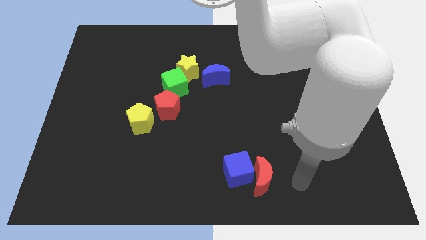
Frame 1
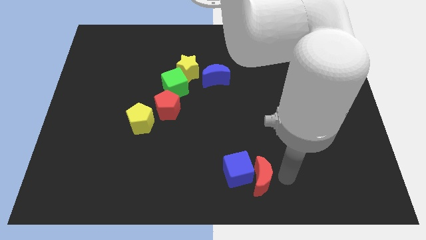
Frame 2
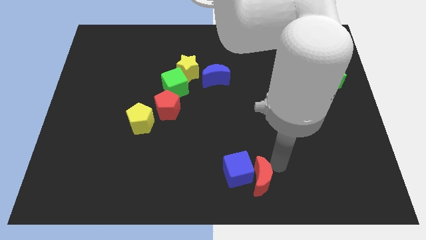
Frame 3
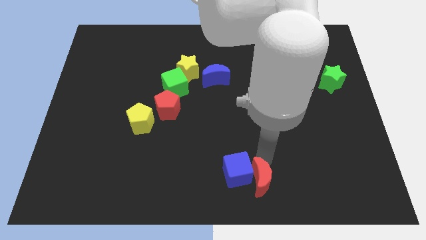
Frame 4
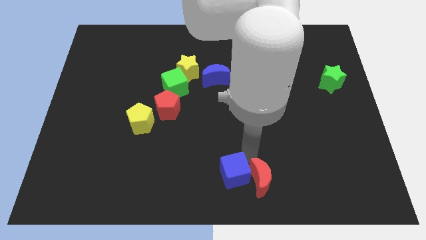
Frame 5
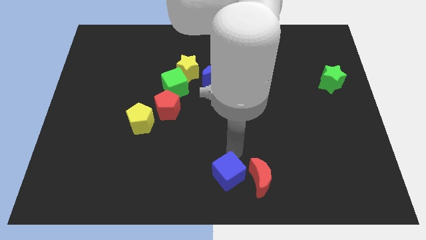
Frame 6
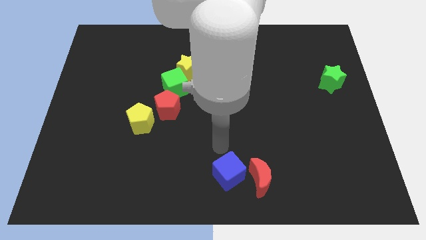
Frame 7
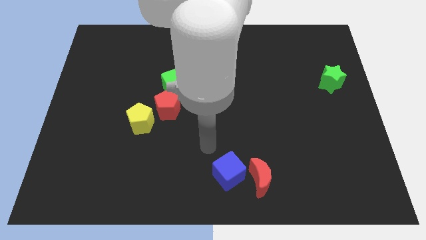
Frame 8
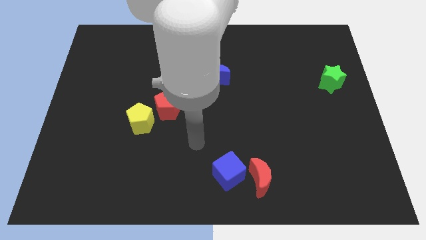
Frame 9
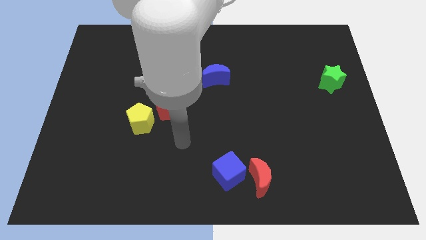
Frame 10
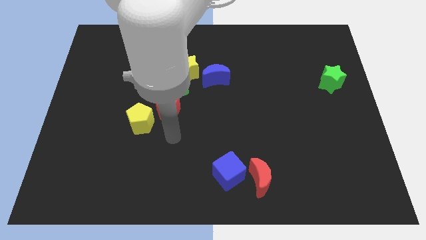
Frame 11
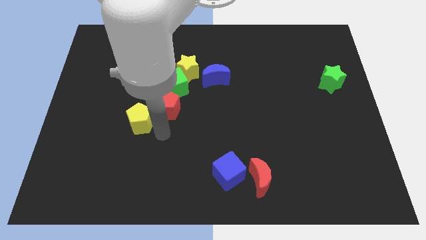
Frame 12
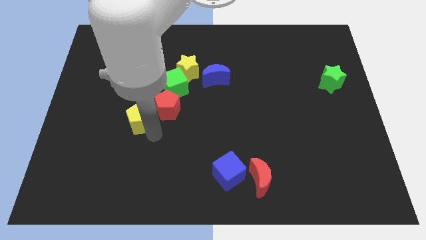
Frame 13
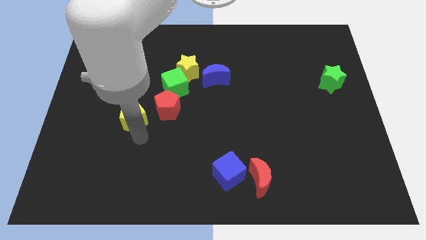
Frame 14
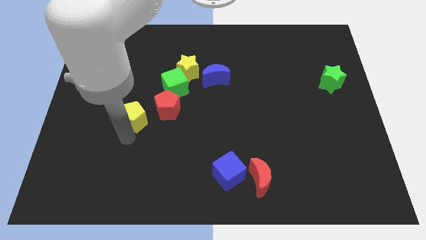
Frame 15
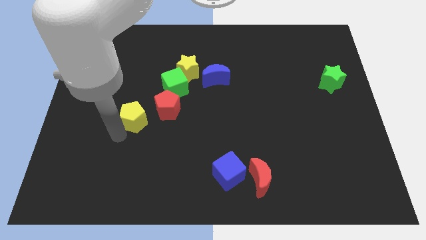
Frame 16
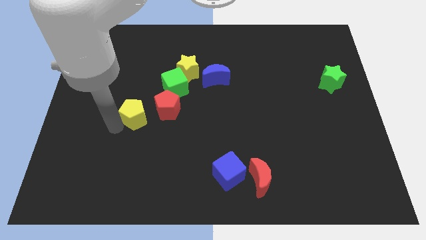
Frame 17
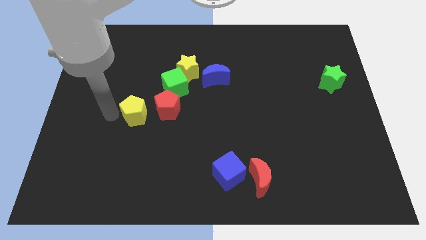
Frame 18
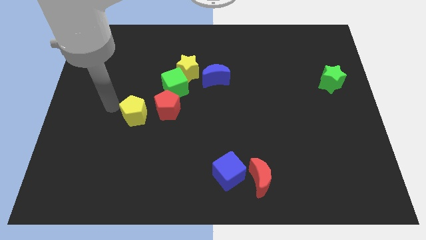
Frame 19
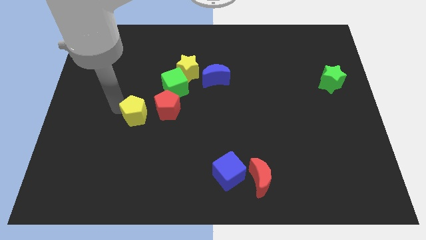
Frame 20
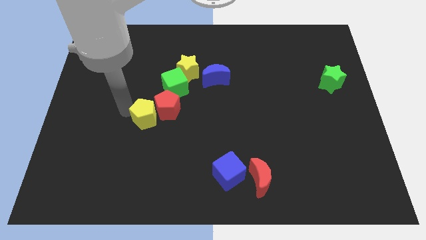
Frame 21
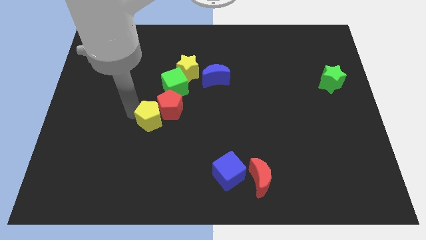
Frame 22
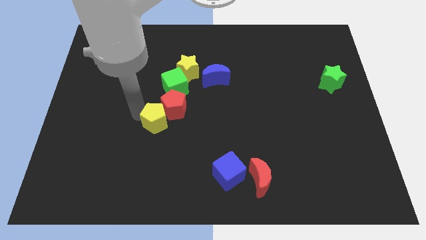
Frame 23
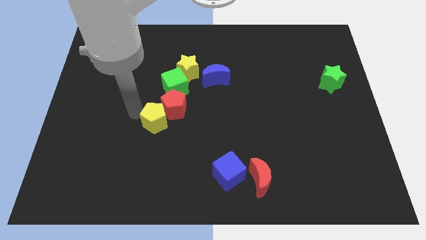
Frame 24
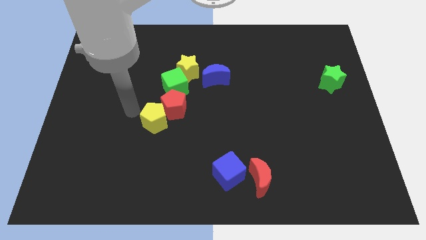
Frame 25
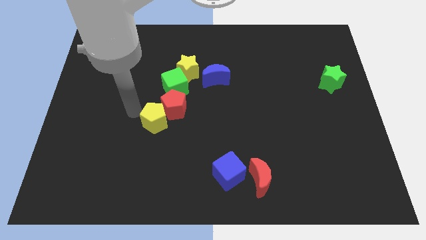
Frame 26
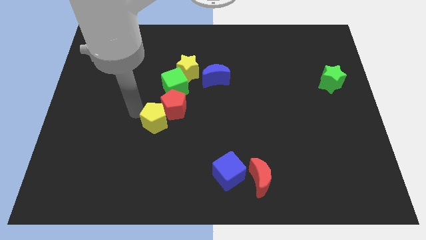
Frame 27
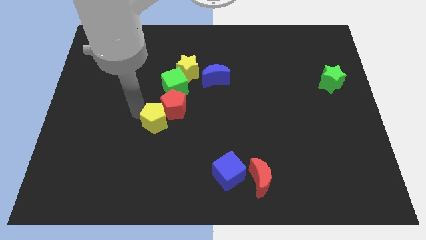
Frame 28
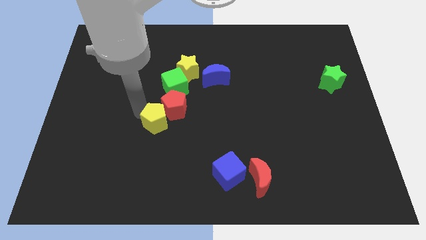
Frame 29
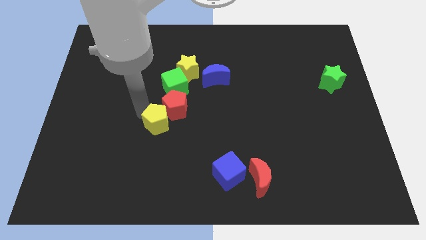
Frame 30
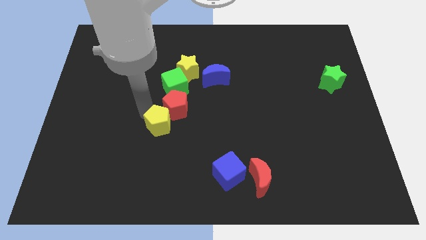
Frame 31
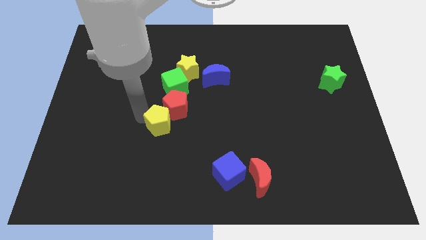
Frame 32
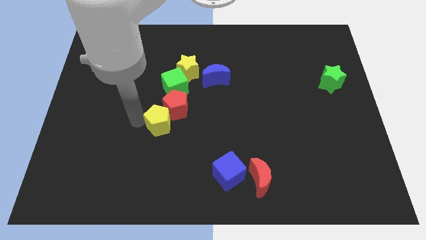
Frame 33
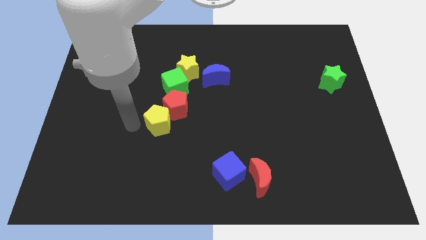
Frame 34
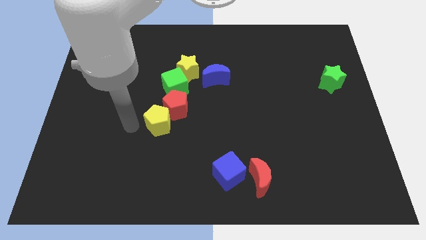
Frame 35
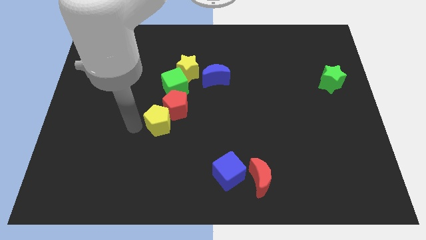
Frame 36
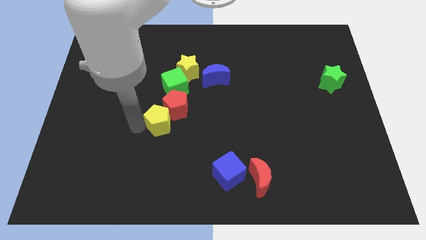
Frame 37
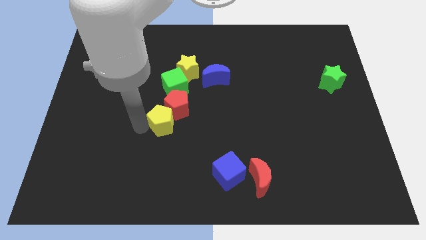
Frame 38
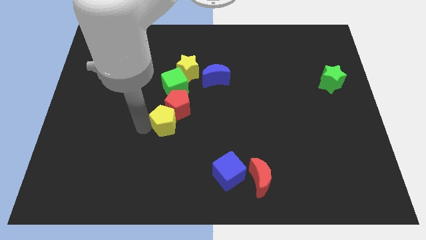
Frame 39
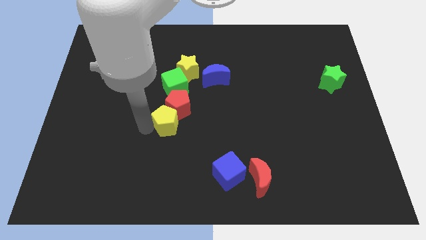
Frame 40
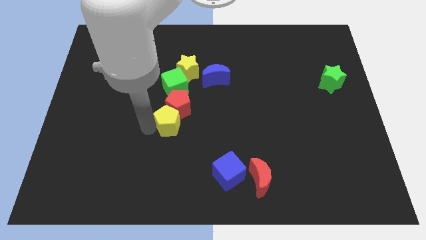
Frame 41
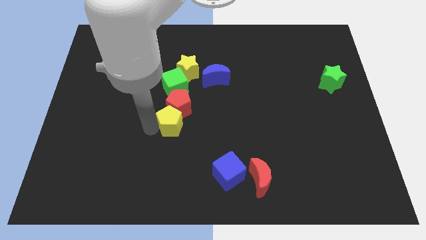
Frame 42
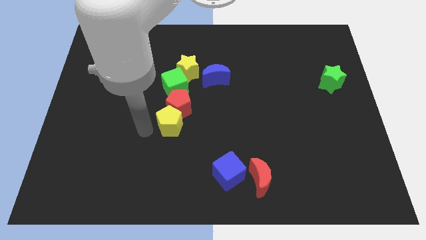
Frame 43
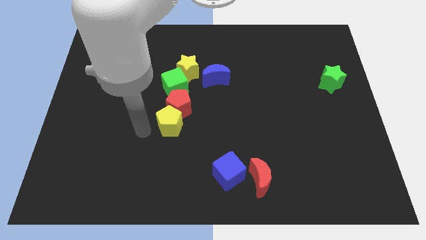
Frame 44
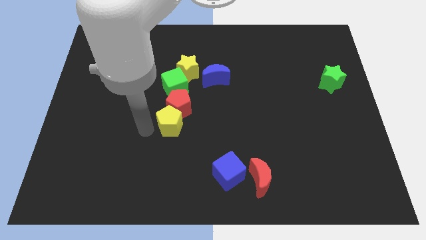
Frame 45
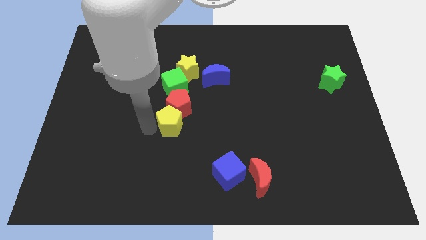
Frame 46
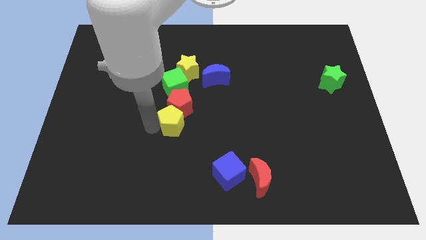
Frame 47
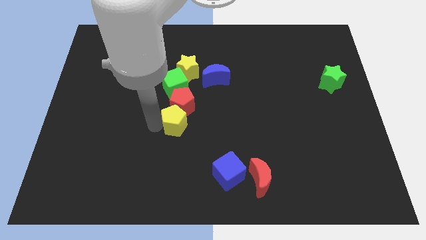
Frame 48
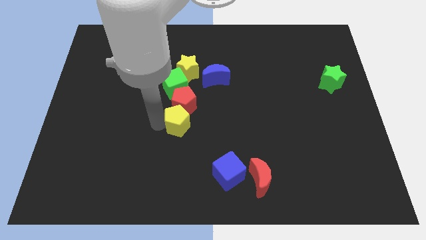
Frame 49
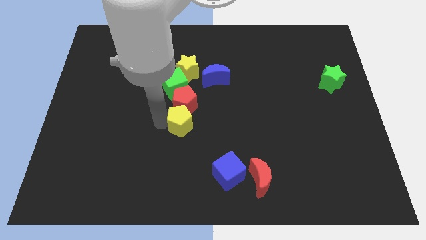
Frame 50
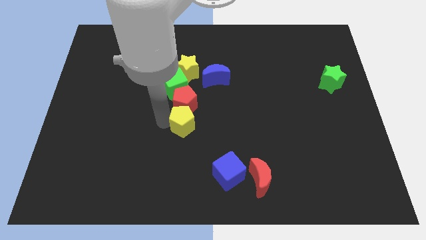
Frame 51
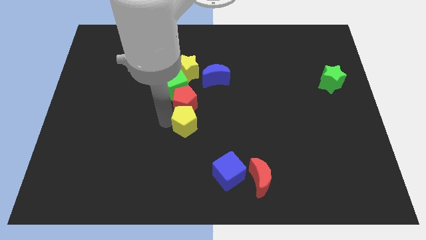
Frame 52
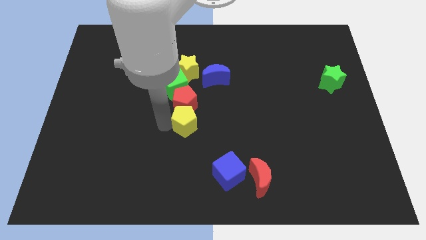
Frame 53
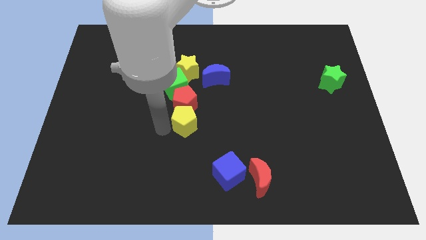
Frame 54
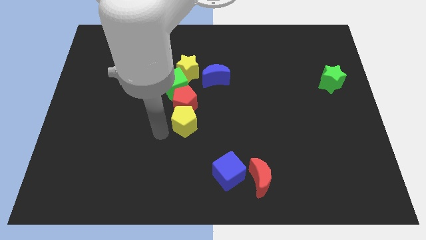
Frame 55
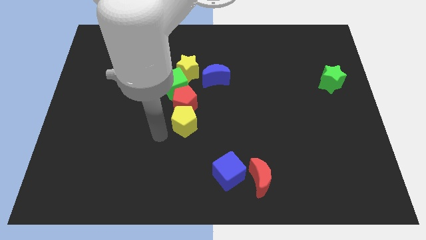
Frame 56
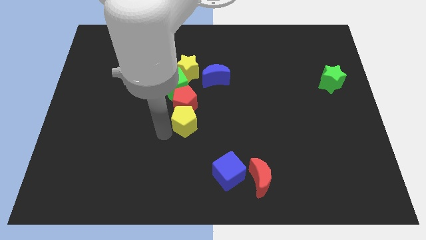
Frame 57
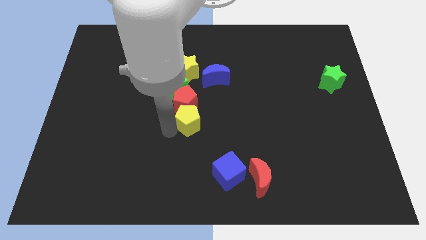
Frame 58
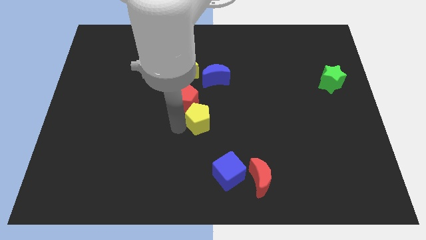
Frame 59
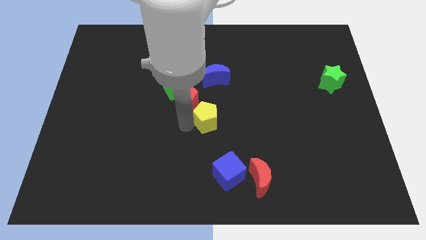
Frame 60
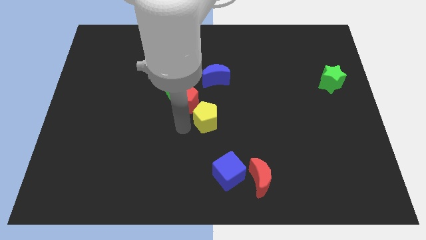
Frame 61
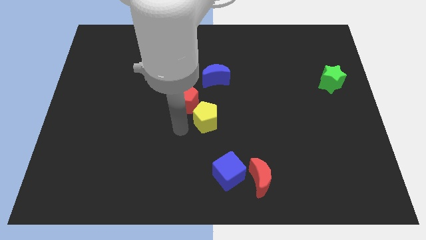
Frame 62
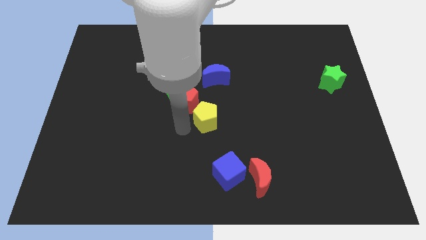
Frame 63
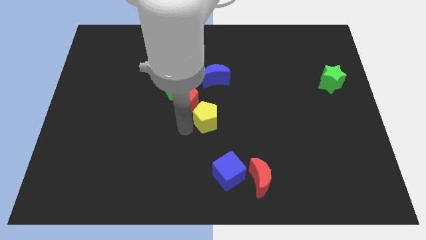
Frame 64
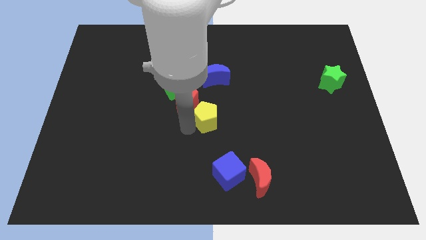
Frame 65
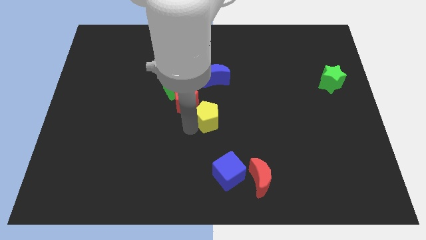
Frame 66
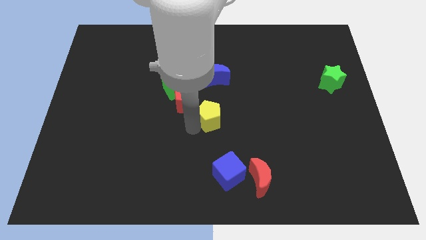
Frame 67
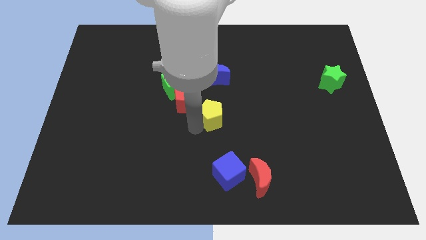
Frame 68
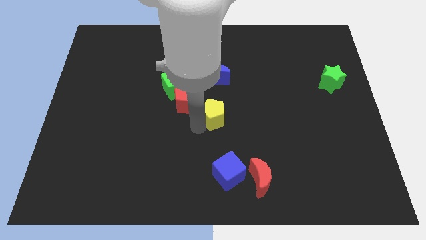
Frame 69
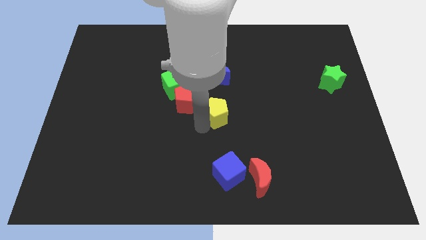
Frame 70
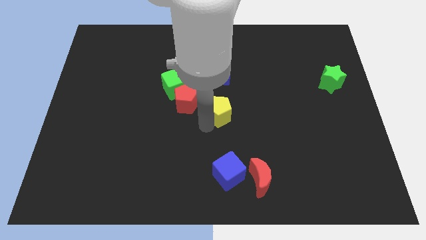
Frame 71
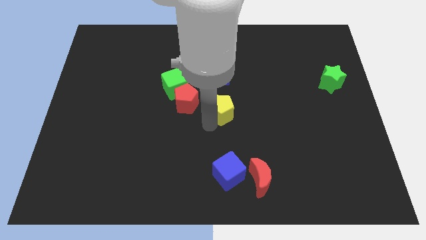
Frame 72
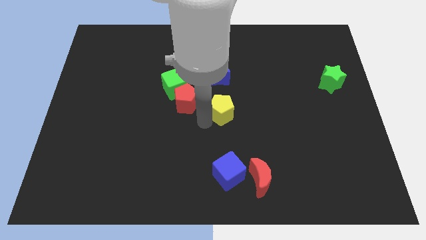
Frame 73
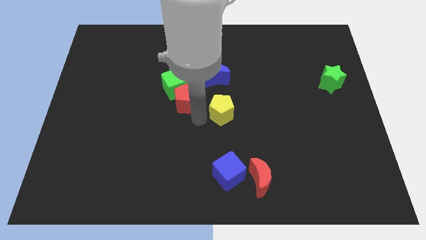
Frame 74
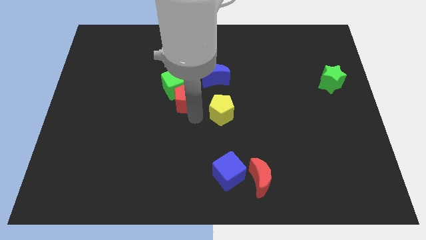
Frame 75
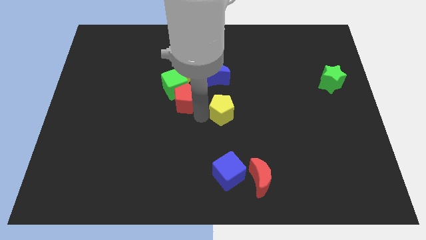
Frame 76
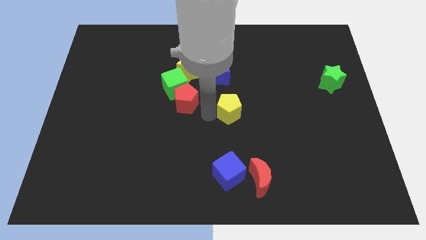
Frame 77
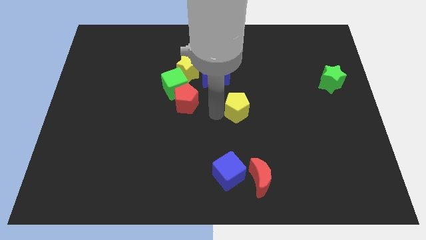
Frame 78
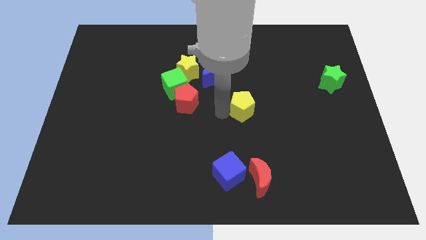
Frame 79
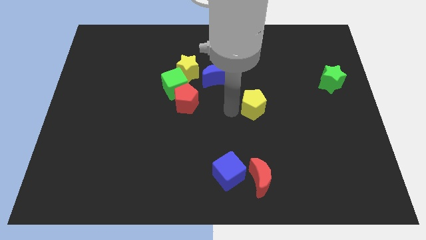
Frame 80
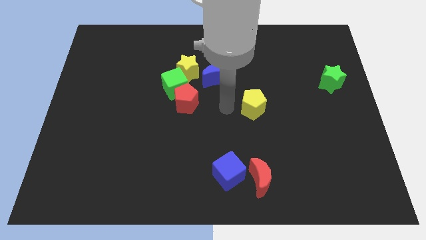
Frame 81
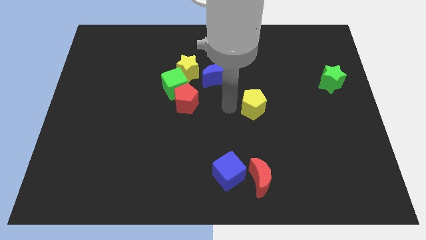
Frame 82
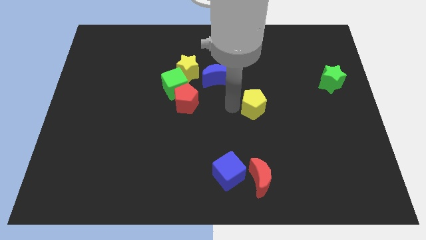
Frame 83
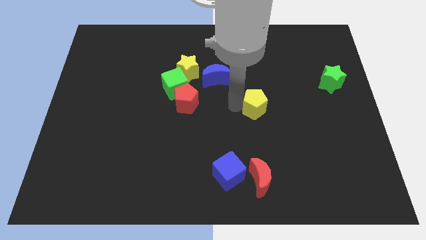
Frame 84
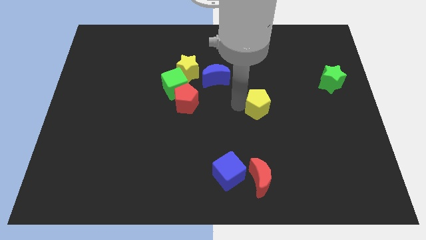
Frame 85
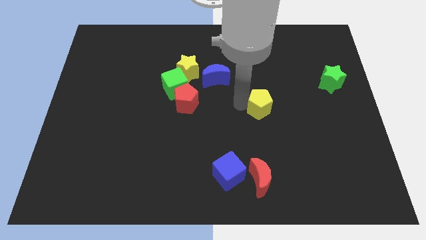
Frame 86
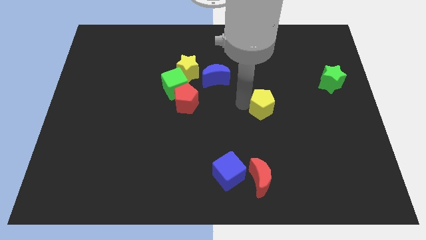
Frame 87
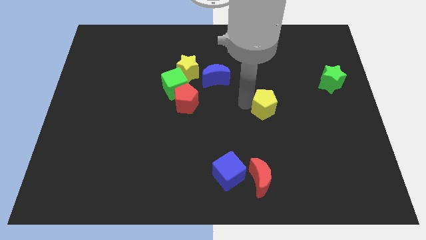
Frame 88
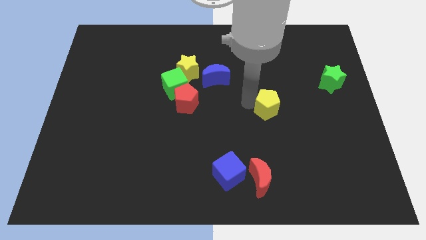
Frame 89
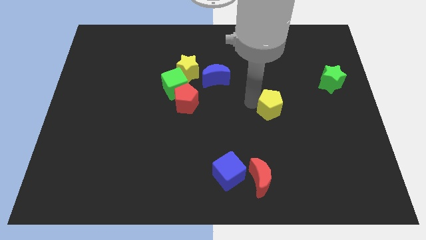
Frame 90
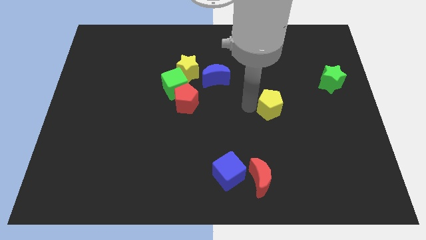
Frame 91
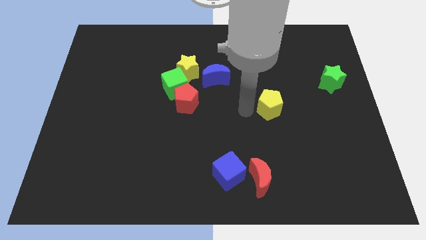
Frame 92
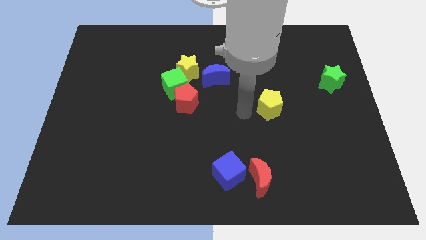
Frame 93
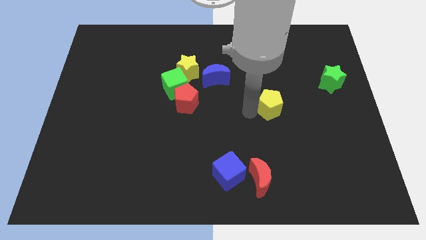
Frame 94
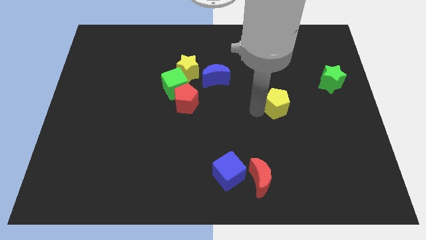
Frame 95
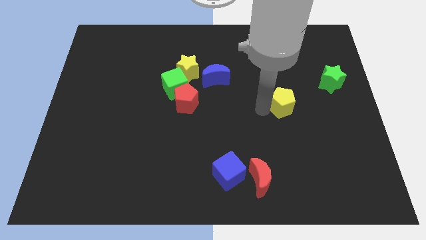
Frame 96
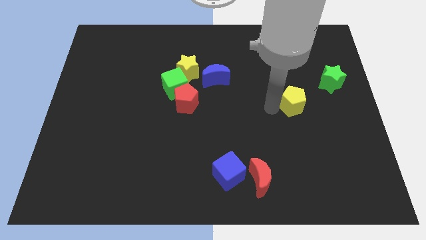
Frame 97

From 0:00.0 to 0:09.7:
slide the yellow pentagon to the bottom left of the green star
